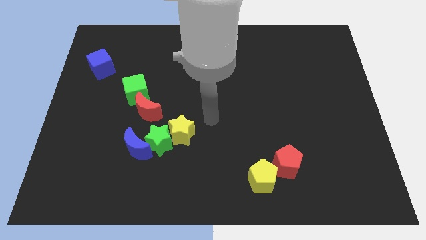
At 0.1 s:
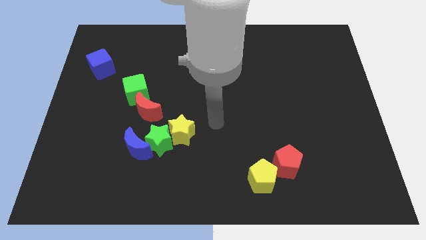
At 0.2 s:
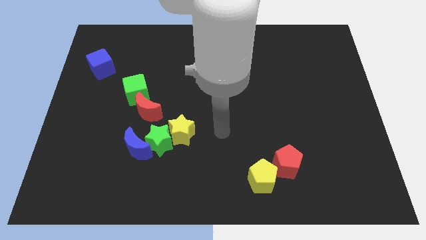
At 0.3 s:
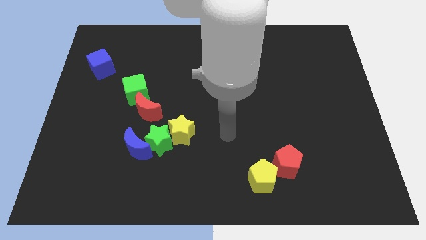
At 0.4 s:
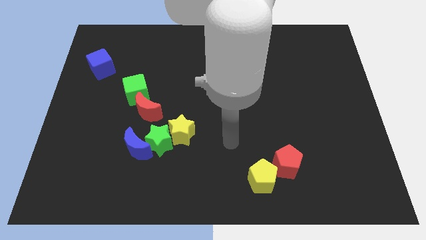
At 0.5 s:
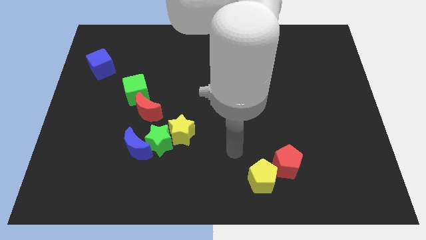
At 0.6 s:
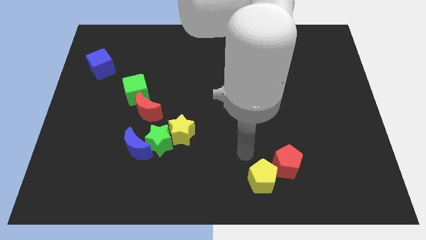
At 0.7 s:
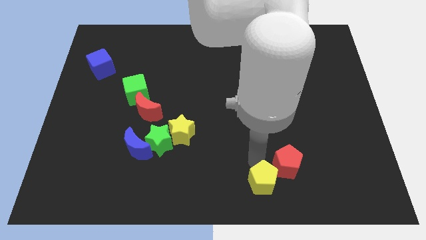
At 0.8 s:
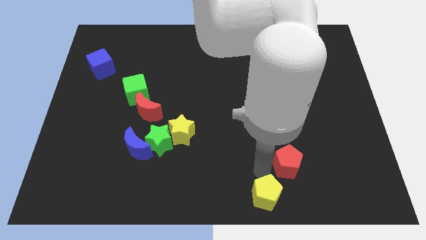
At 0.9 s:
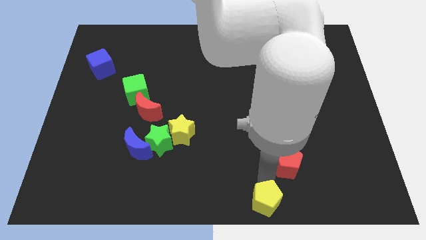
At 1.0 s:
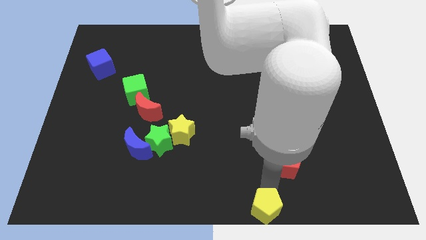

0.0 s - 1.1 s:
pull the red pentagon apart from the yellow pentagon

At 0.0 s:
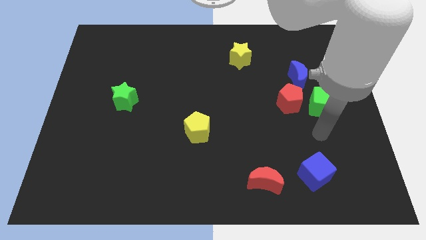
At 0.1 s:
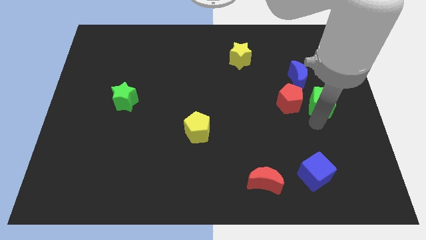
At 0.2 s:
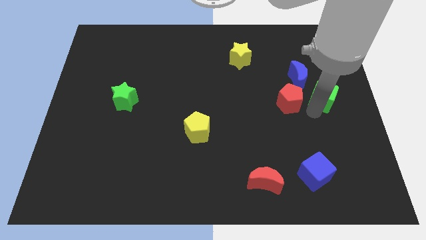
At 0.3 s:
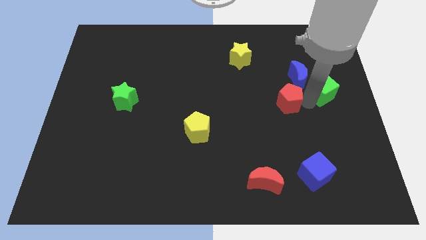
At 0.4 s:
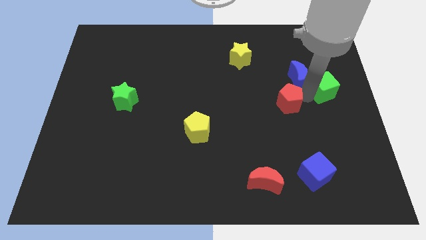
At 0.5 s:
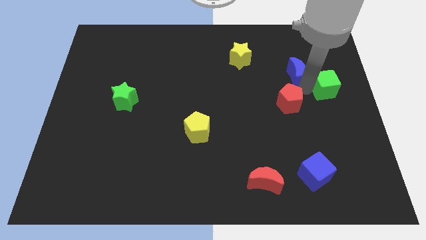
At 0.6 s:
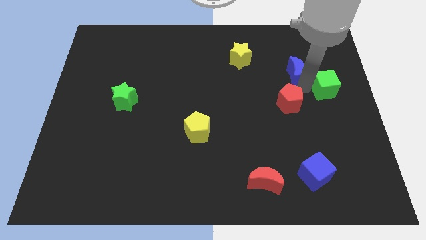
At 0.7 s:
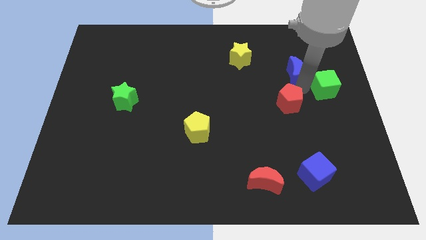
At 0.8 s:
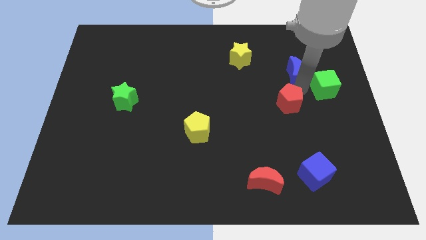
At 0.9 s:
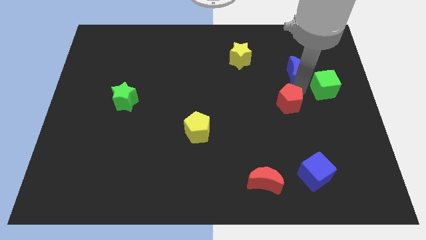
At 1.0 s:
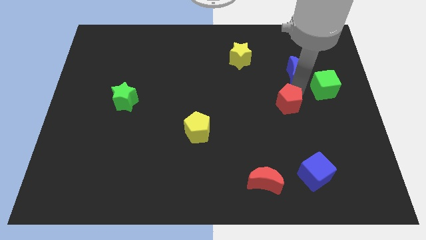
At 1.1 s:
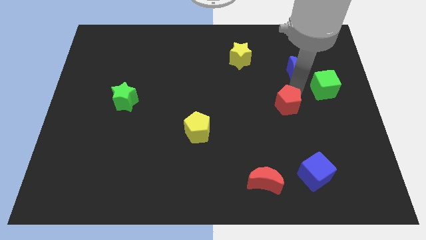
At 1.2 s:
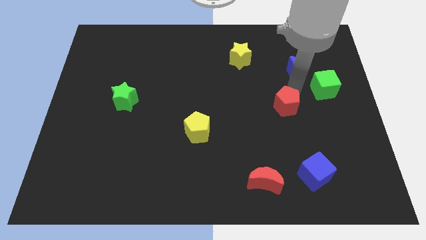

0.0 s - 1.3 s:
pull the red pentagon apart from the green cube and blue moon

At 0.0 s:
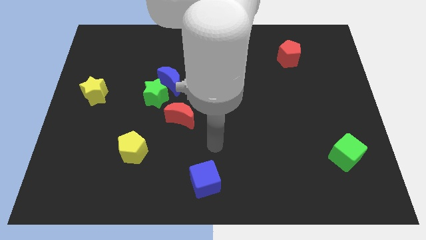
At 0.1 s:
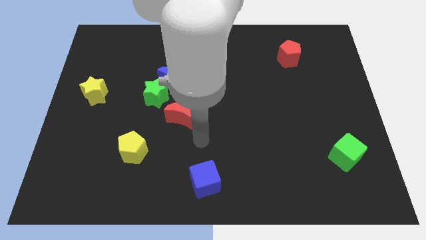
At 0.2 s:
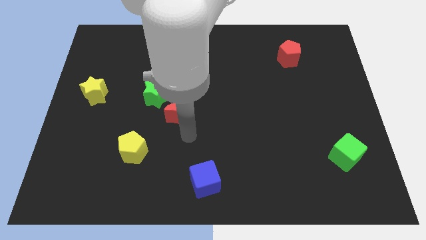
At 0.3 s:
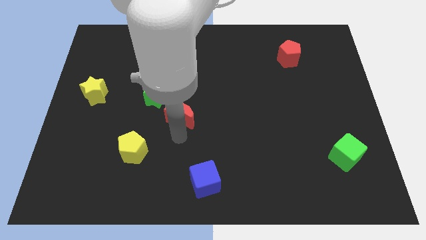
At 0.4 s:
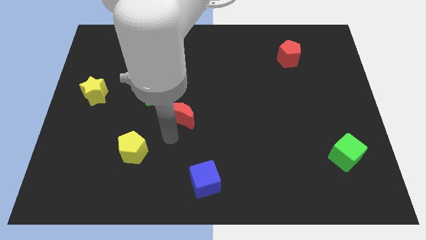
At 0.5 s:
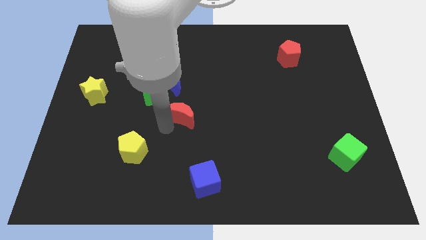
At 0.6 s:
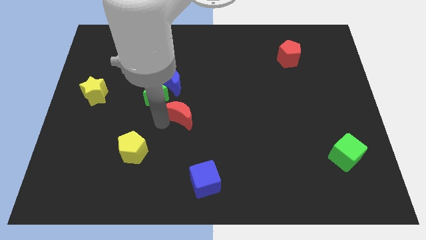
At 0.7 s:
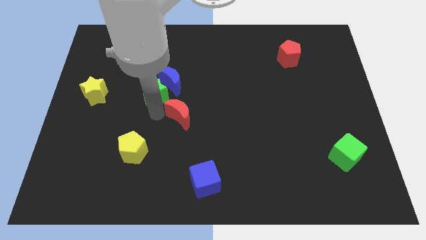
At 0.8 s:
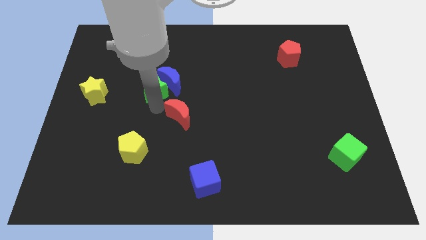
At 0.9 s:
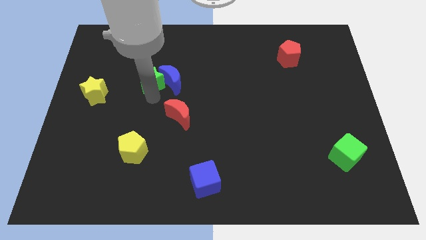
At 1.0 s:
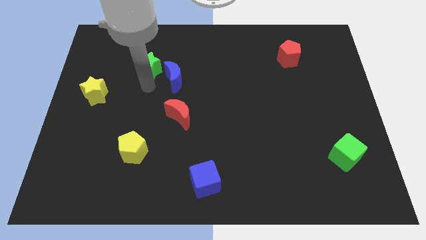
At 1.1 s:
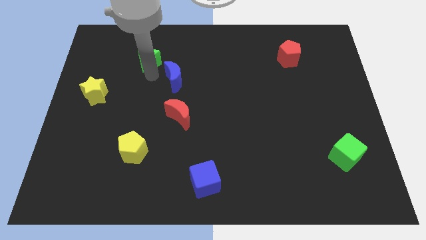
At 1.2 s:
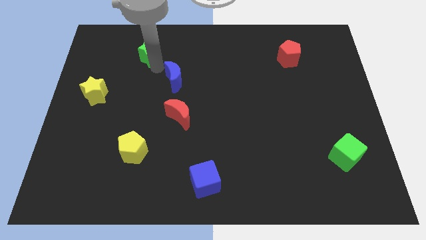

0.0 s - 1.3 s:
move the blue moon away from the green star

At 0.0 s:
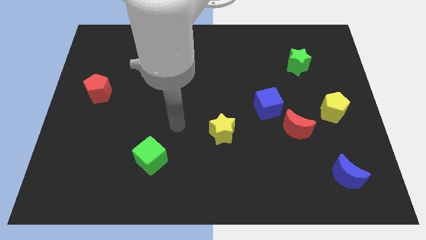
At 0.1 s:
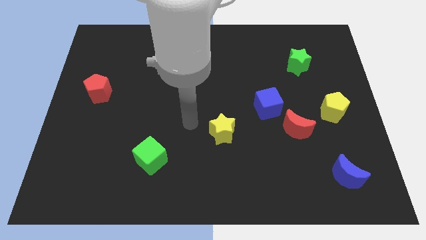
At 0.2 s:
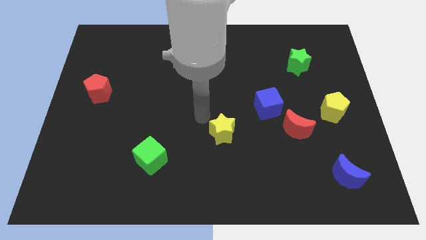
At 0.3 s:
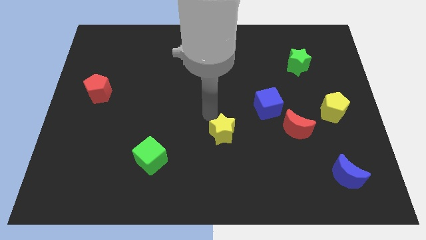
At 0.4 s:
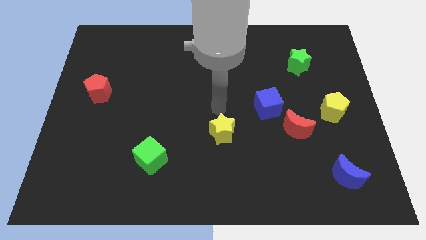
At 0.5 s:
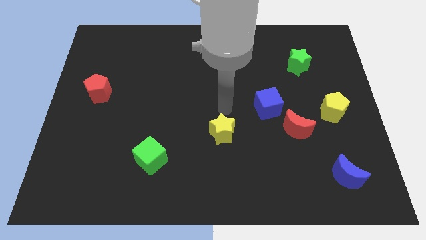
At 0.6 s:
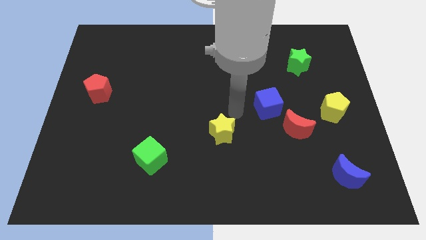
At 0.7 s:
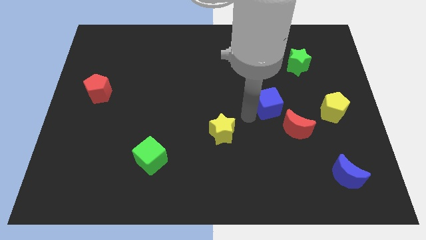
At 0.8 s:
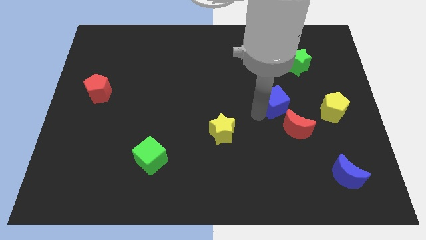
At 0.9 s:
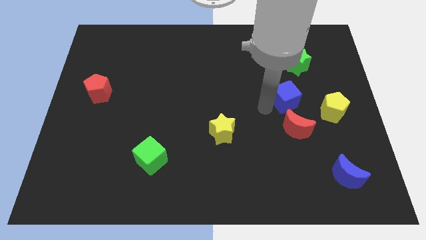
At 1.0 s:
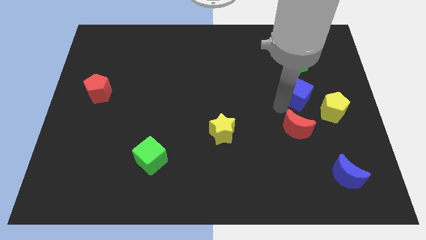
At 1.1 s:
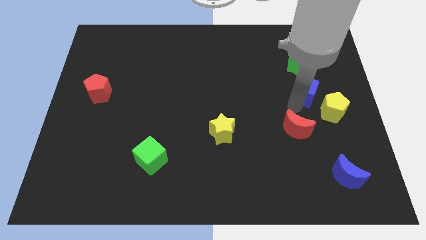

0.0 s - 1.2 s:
separate the red moon from the blue cube

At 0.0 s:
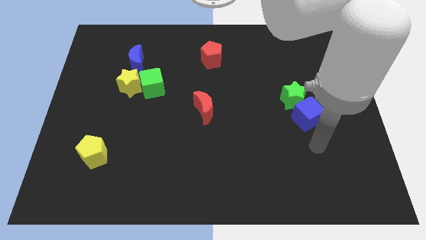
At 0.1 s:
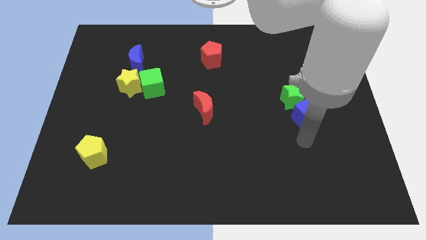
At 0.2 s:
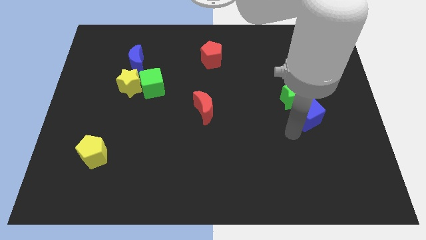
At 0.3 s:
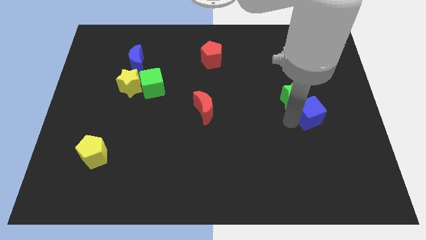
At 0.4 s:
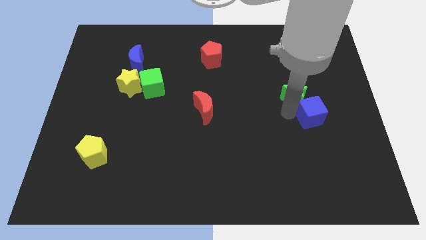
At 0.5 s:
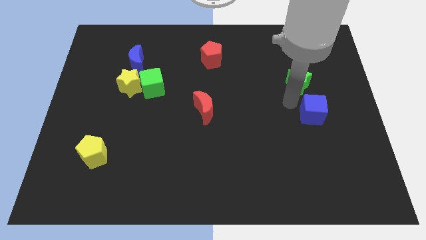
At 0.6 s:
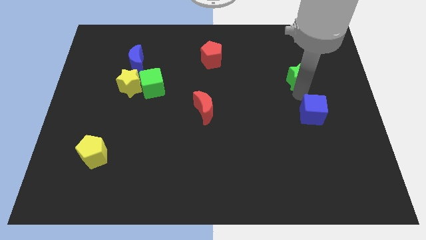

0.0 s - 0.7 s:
pull the blue cube apart from the green star

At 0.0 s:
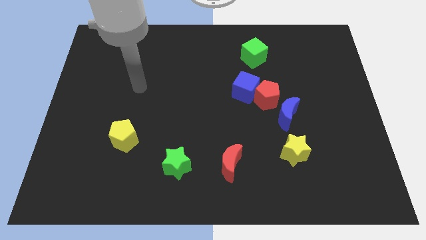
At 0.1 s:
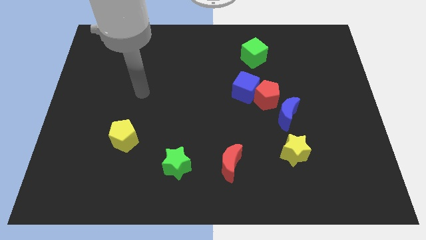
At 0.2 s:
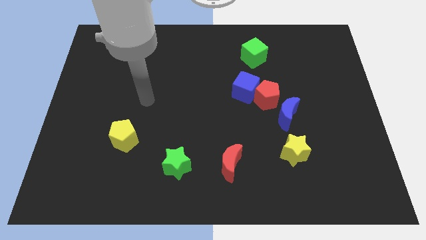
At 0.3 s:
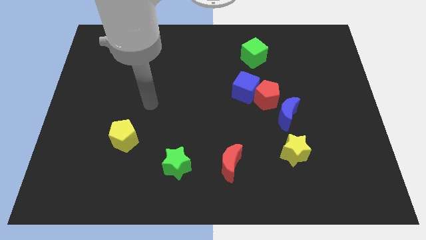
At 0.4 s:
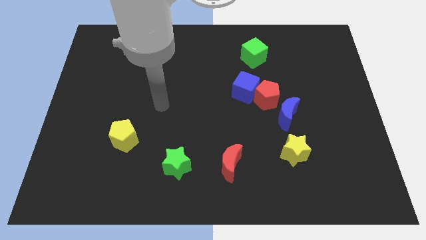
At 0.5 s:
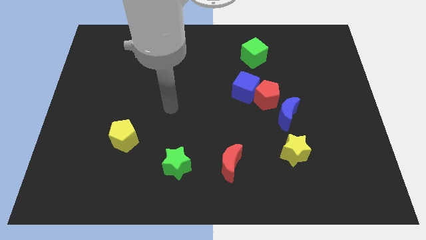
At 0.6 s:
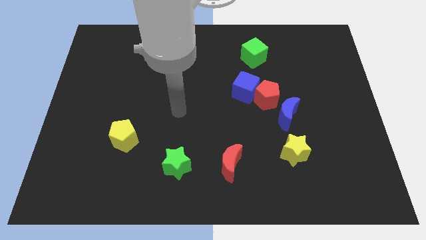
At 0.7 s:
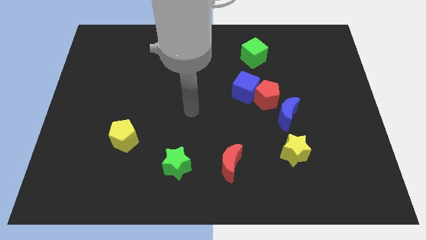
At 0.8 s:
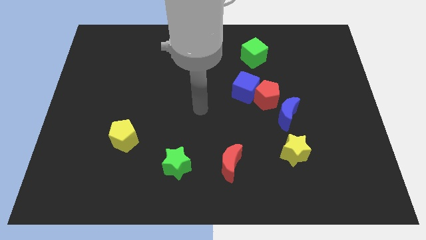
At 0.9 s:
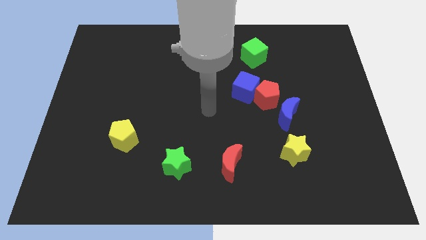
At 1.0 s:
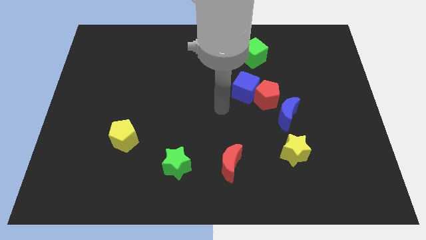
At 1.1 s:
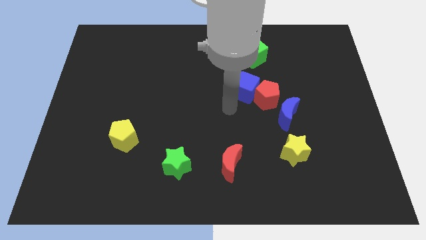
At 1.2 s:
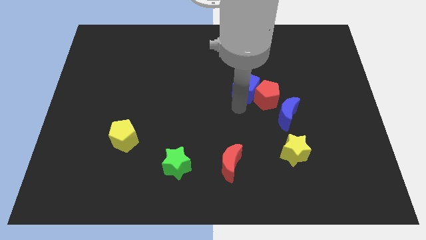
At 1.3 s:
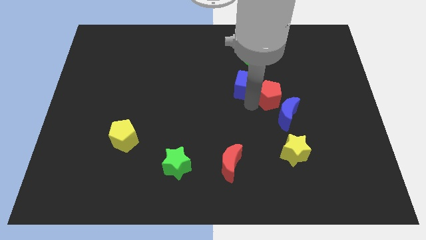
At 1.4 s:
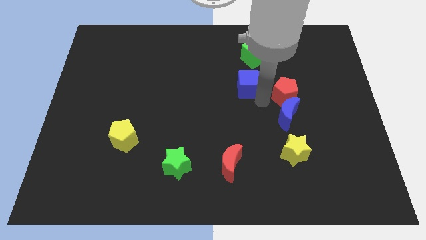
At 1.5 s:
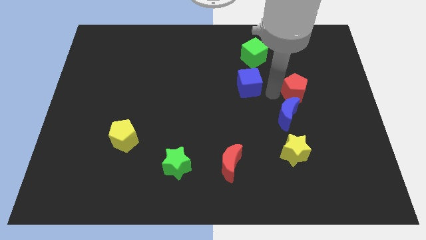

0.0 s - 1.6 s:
pull the blue cube apart from the red pentagon

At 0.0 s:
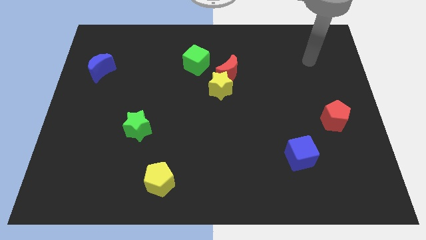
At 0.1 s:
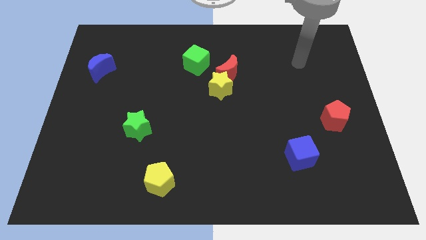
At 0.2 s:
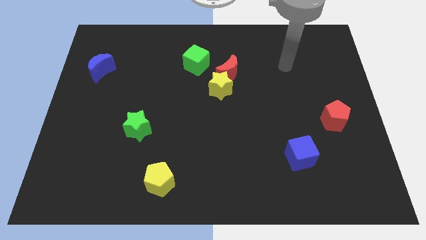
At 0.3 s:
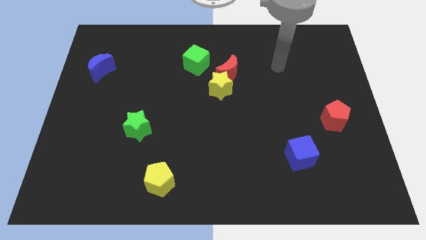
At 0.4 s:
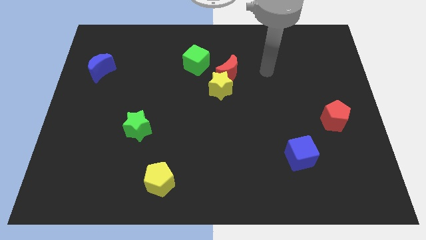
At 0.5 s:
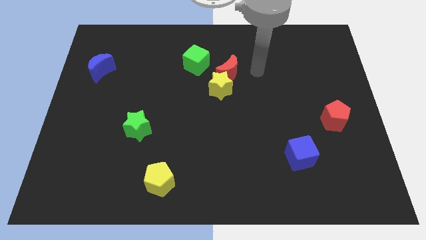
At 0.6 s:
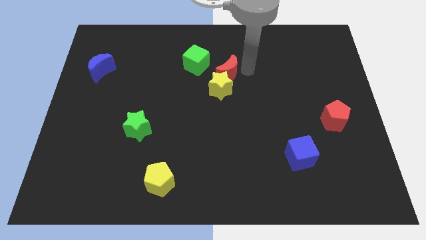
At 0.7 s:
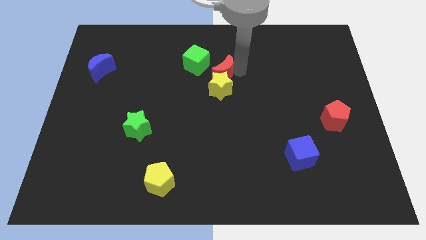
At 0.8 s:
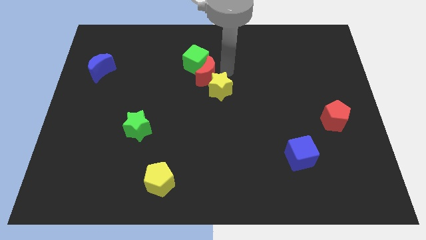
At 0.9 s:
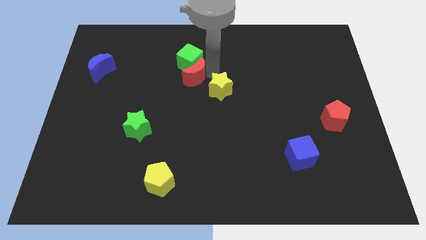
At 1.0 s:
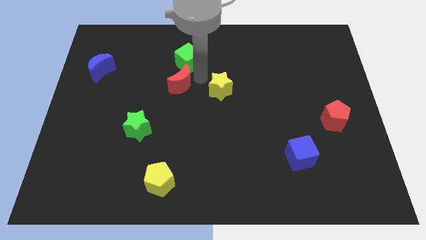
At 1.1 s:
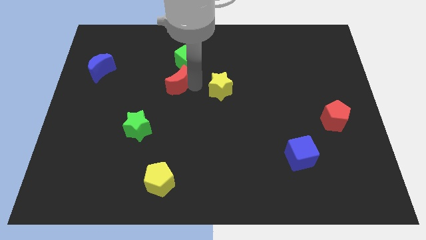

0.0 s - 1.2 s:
move the yellow star away from the red moon

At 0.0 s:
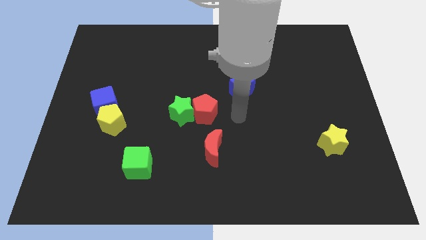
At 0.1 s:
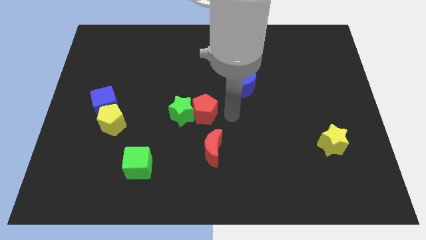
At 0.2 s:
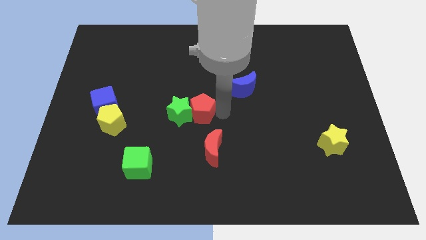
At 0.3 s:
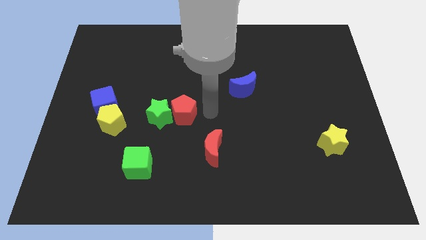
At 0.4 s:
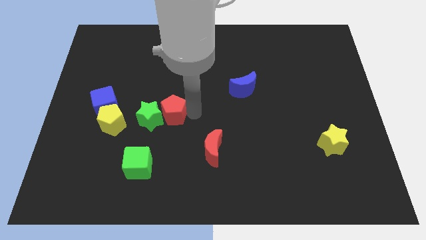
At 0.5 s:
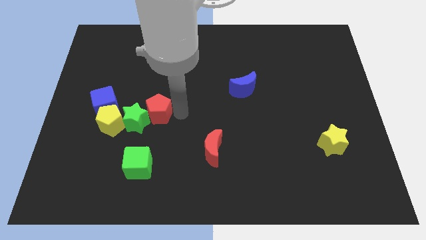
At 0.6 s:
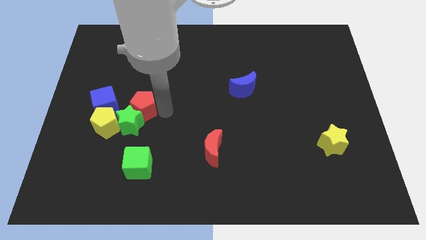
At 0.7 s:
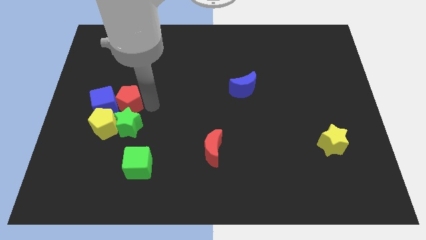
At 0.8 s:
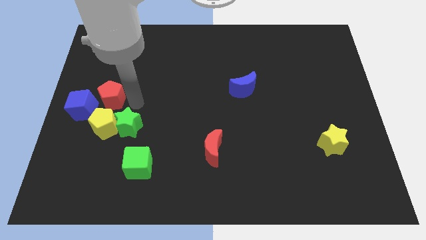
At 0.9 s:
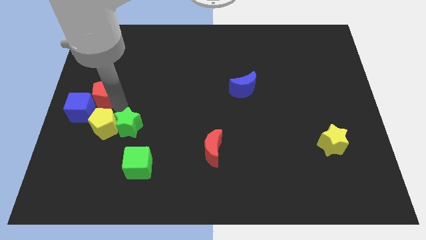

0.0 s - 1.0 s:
pull the green star apart from the red pentagon

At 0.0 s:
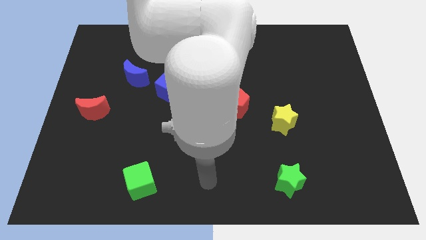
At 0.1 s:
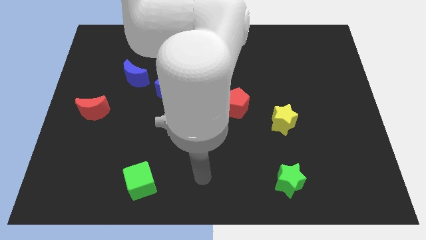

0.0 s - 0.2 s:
pull the blue moon apart from the blue cube
